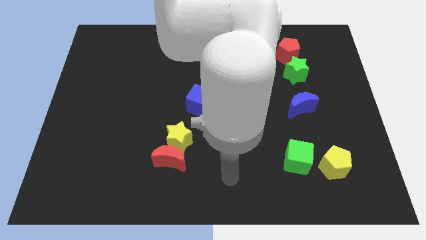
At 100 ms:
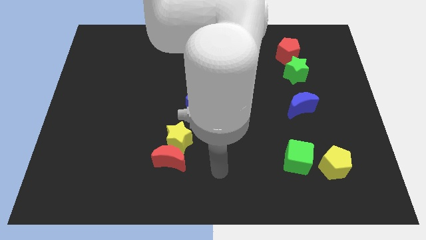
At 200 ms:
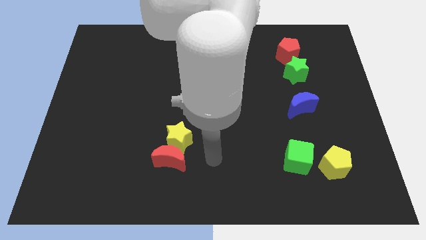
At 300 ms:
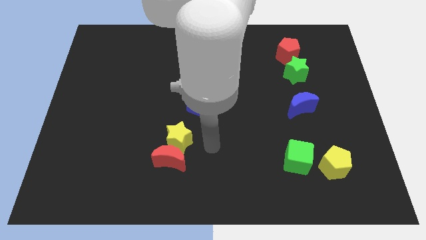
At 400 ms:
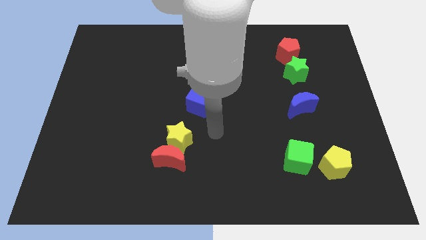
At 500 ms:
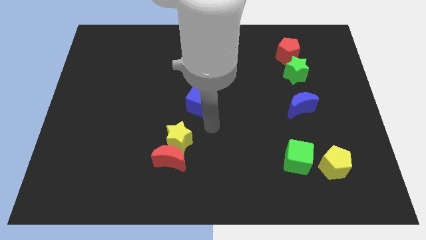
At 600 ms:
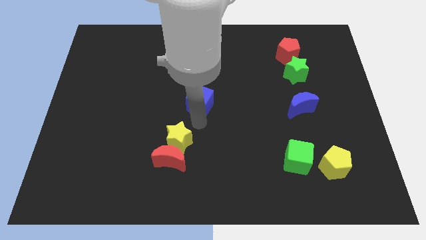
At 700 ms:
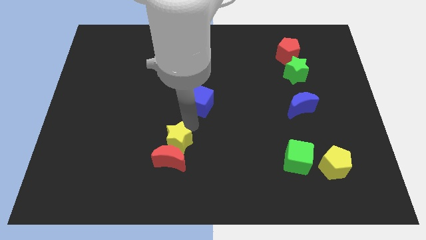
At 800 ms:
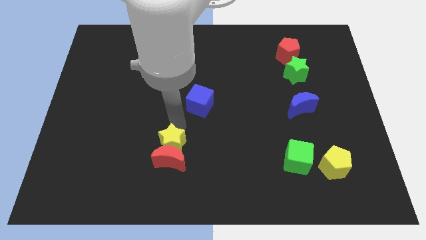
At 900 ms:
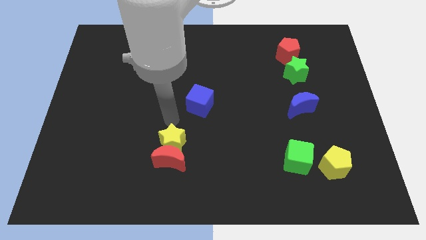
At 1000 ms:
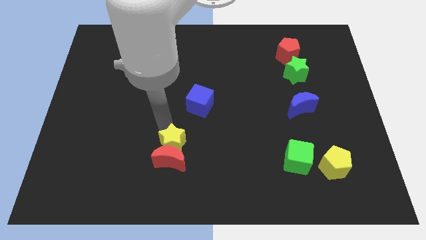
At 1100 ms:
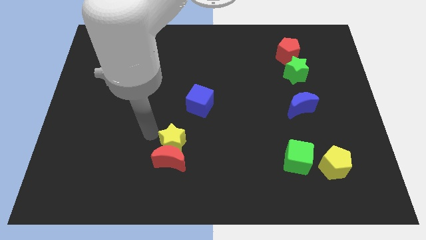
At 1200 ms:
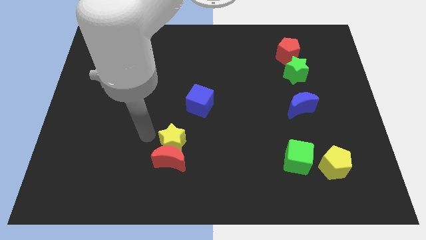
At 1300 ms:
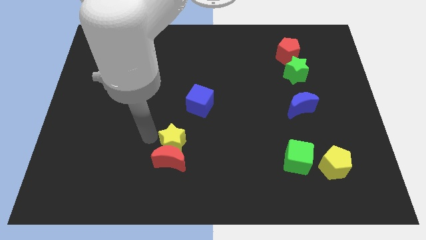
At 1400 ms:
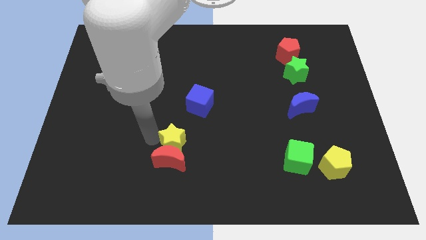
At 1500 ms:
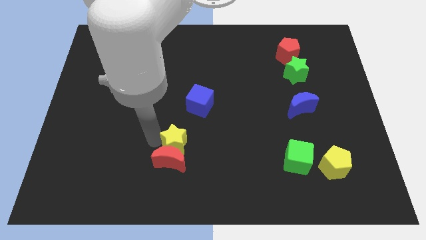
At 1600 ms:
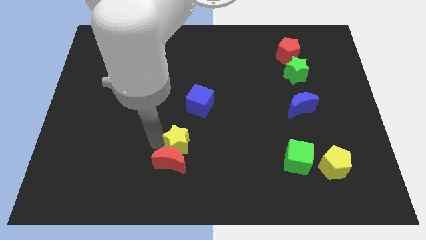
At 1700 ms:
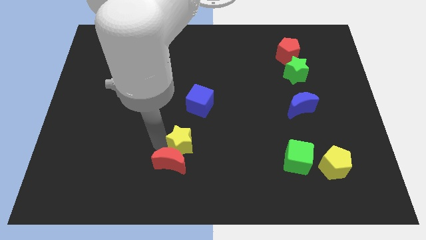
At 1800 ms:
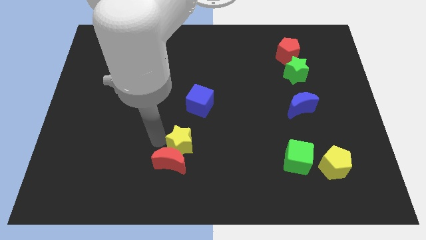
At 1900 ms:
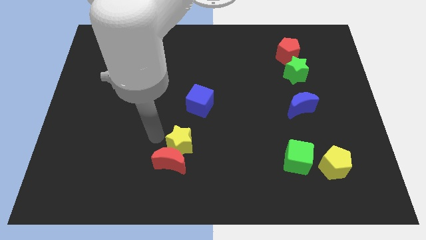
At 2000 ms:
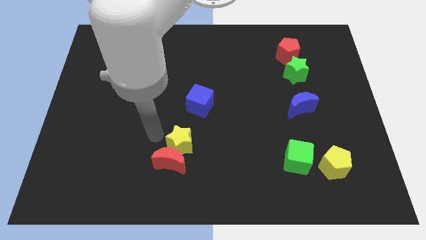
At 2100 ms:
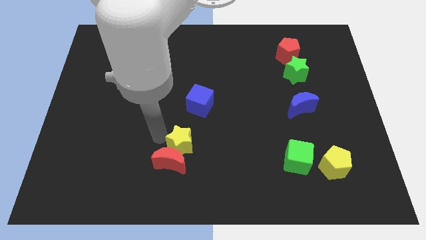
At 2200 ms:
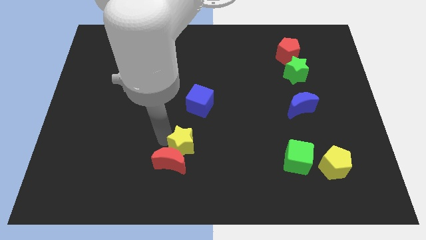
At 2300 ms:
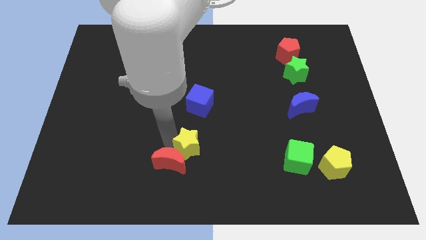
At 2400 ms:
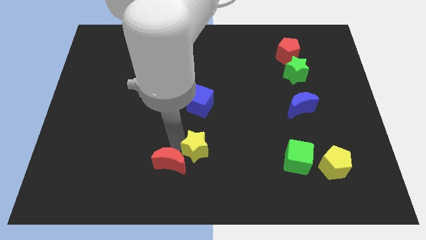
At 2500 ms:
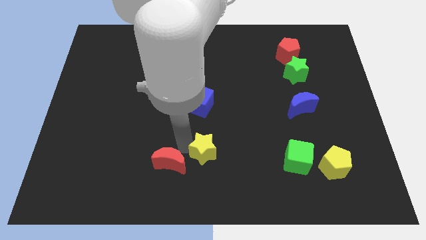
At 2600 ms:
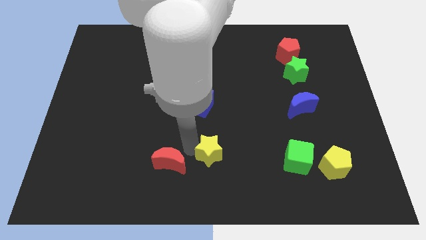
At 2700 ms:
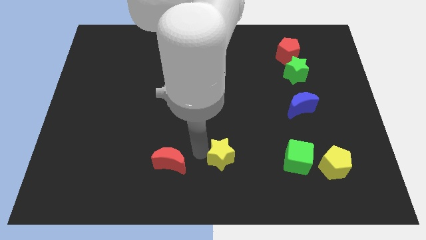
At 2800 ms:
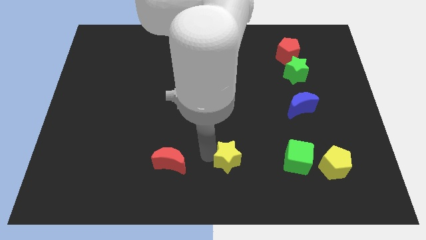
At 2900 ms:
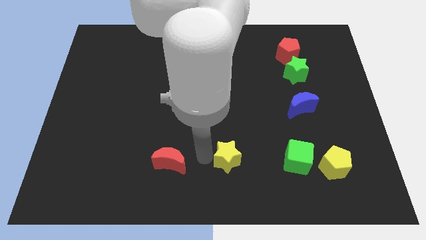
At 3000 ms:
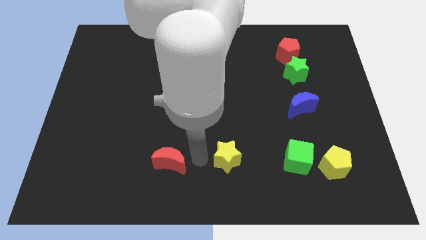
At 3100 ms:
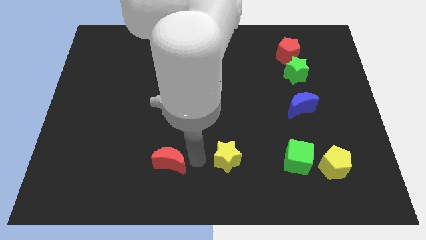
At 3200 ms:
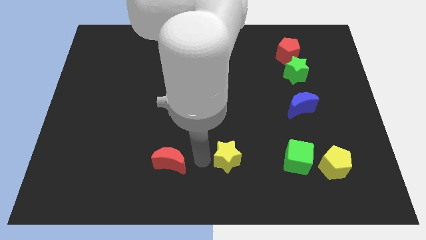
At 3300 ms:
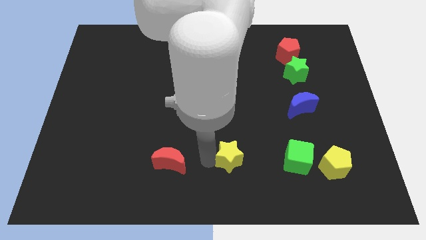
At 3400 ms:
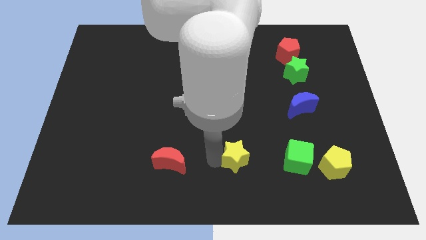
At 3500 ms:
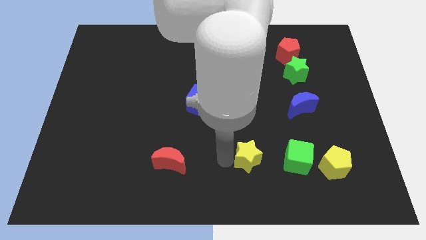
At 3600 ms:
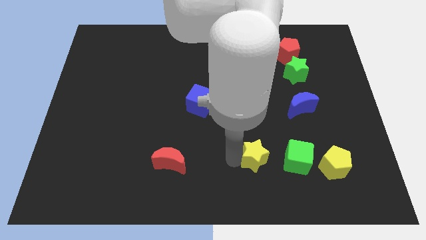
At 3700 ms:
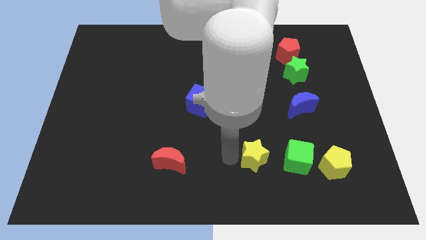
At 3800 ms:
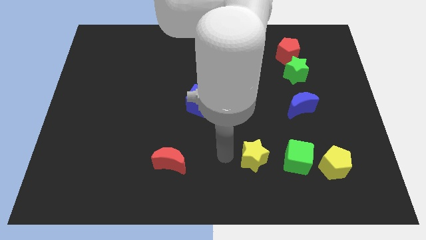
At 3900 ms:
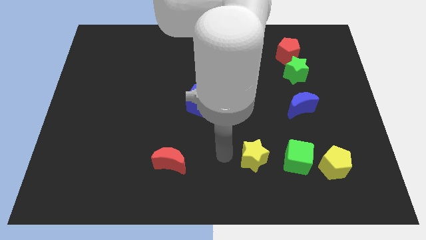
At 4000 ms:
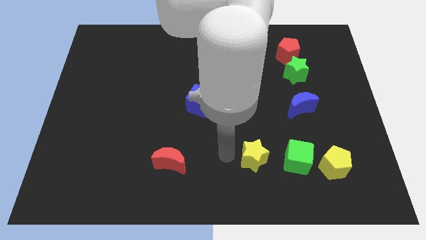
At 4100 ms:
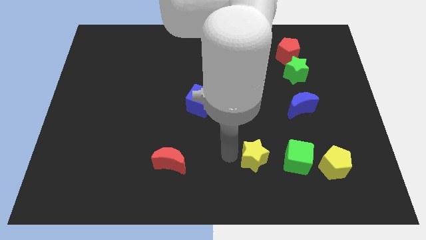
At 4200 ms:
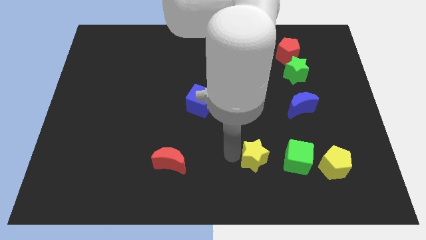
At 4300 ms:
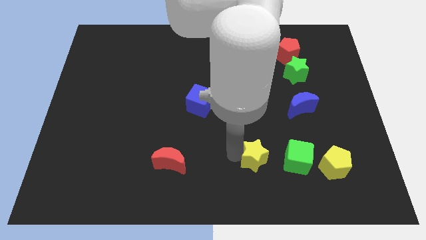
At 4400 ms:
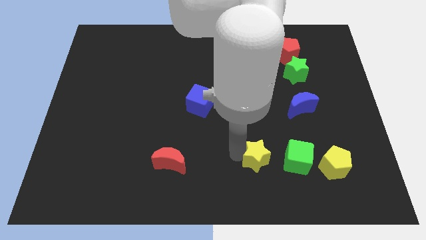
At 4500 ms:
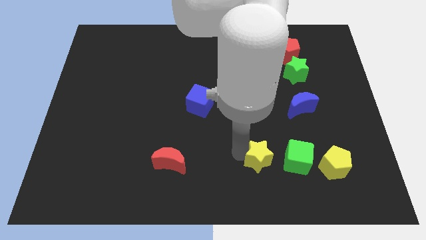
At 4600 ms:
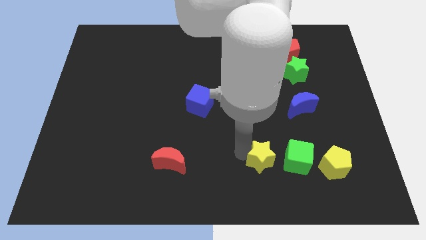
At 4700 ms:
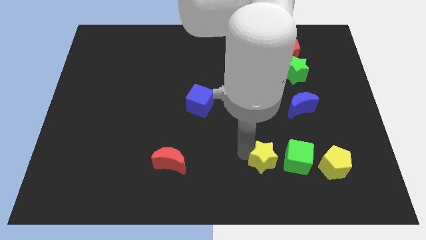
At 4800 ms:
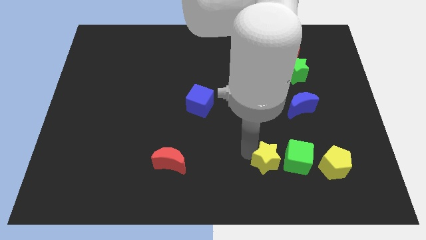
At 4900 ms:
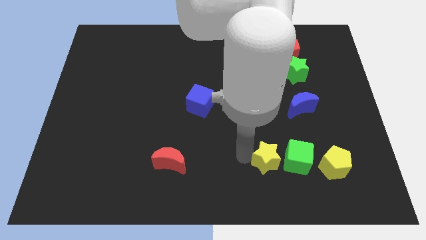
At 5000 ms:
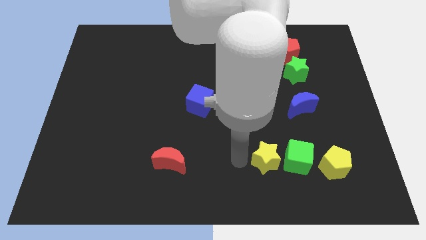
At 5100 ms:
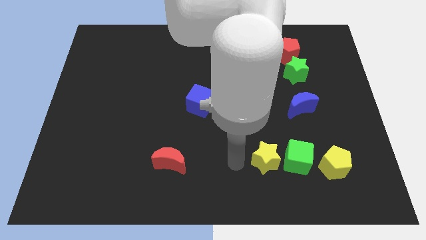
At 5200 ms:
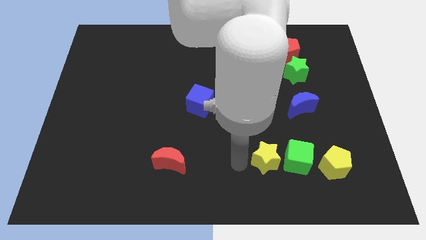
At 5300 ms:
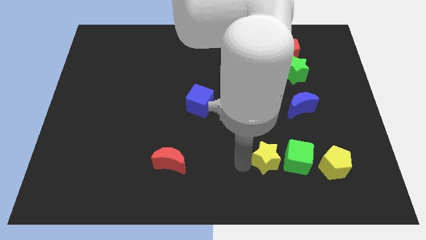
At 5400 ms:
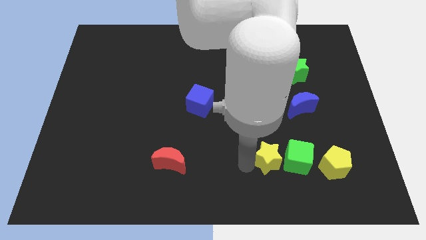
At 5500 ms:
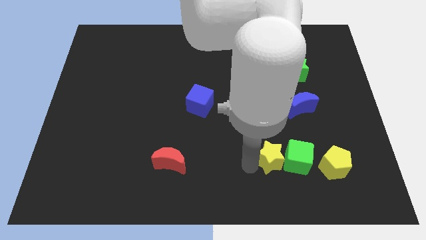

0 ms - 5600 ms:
push the yellow star close to the green cube

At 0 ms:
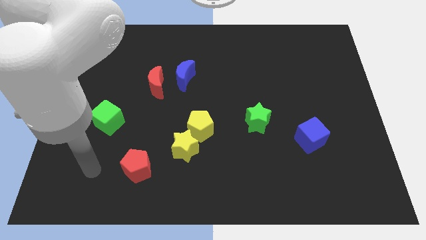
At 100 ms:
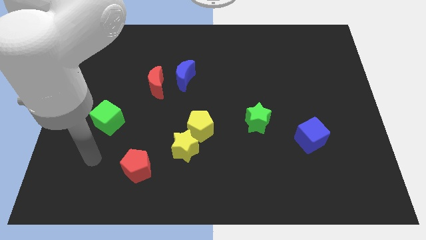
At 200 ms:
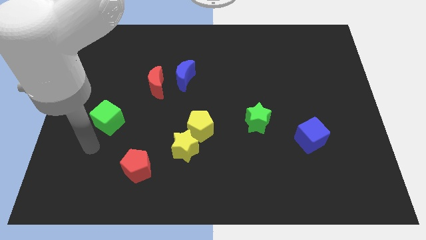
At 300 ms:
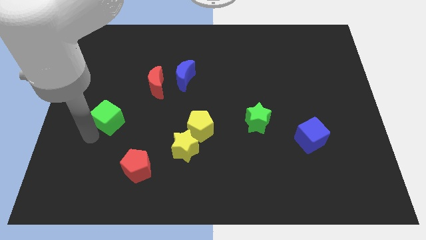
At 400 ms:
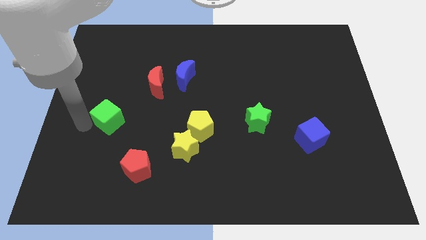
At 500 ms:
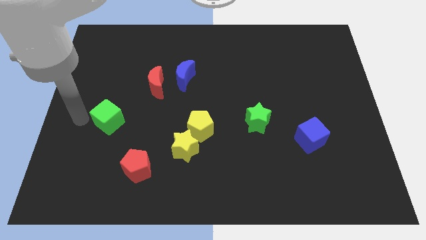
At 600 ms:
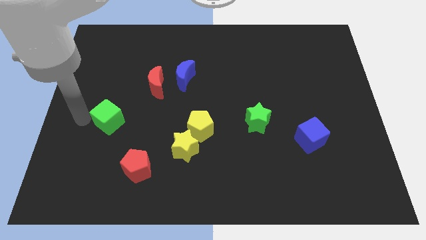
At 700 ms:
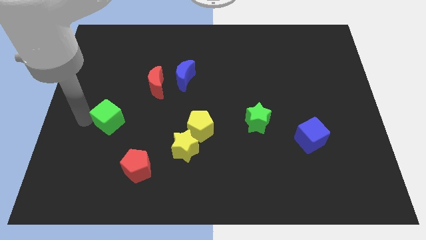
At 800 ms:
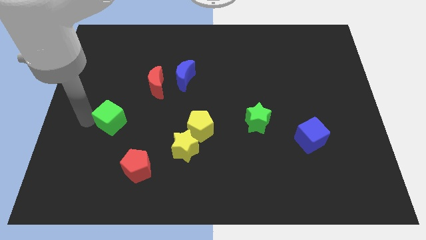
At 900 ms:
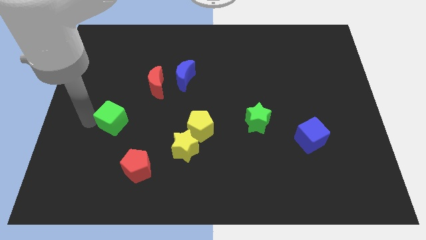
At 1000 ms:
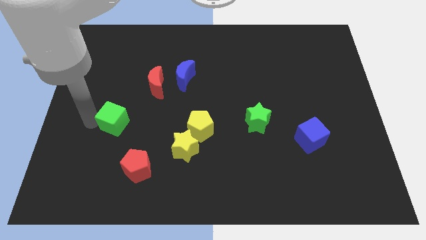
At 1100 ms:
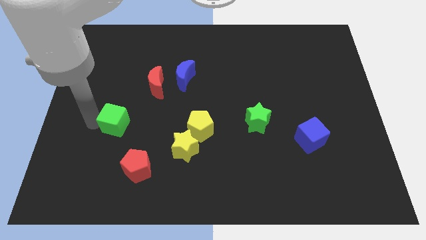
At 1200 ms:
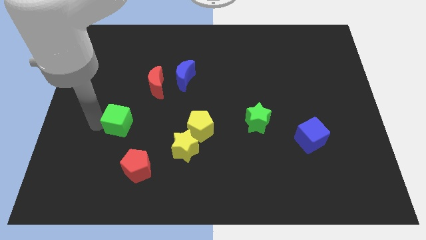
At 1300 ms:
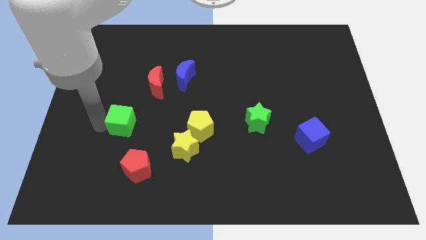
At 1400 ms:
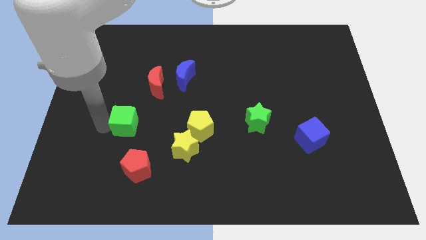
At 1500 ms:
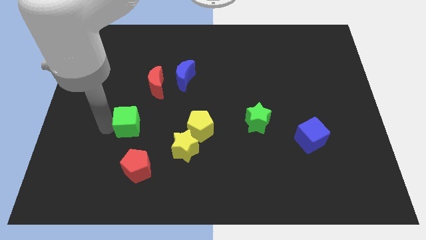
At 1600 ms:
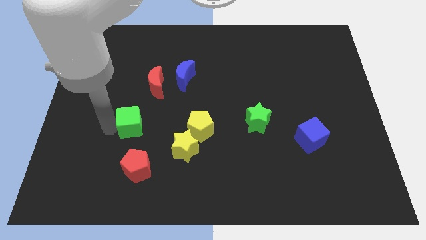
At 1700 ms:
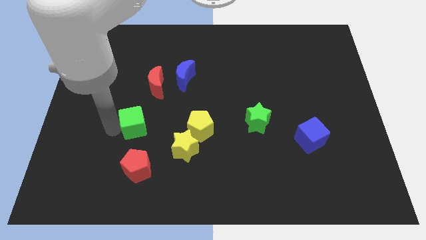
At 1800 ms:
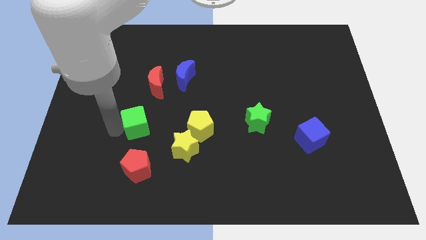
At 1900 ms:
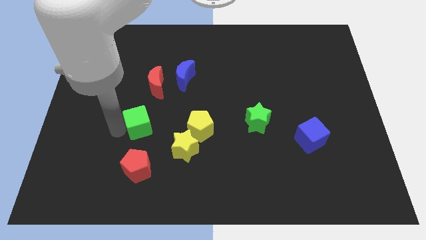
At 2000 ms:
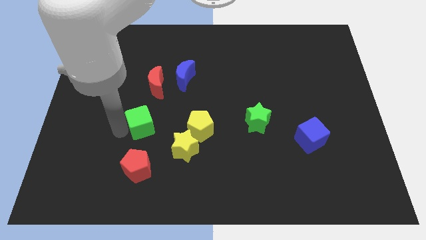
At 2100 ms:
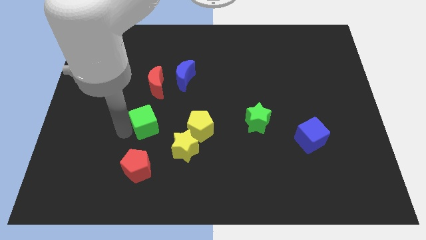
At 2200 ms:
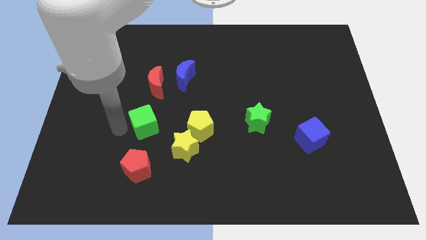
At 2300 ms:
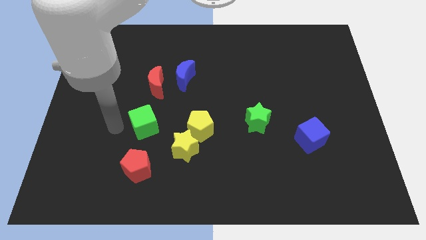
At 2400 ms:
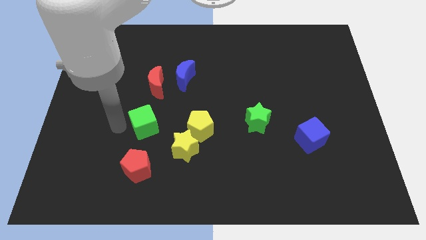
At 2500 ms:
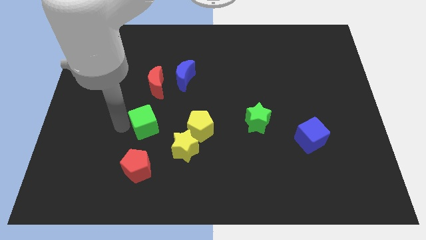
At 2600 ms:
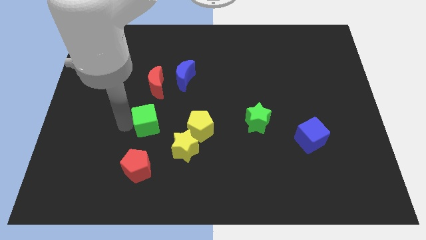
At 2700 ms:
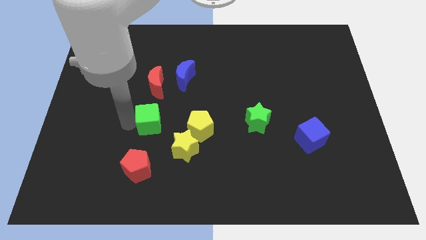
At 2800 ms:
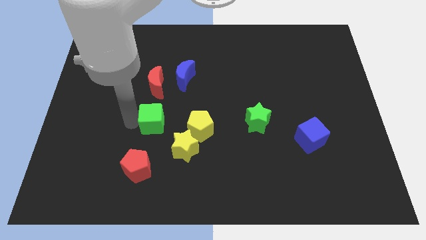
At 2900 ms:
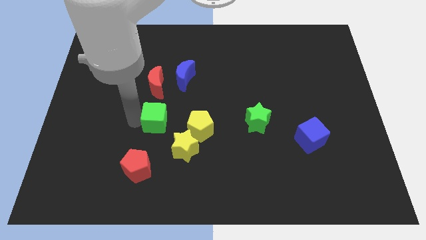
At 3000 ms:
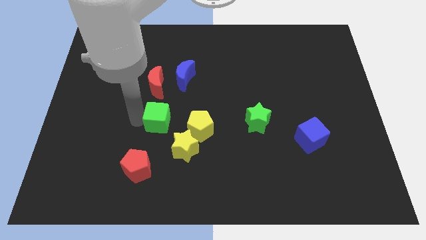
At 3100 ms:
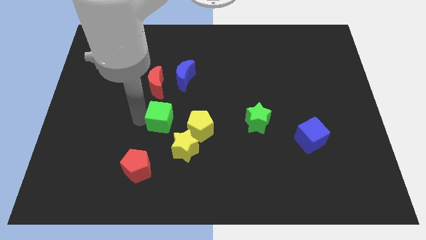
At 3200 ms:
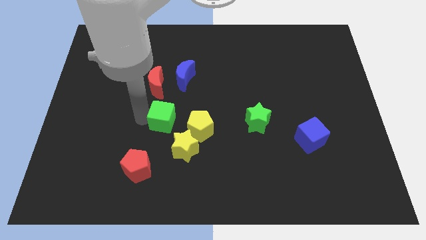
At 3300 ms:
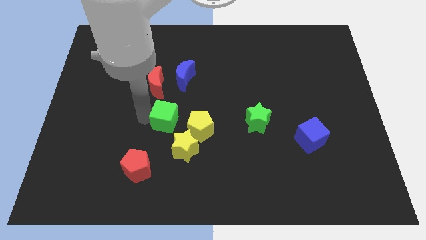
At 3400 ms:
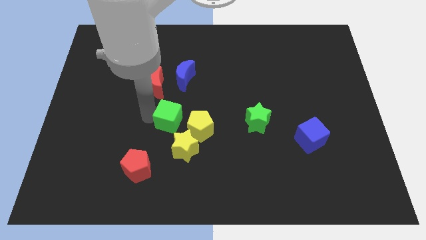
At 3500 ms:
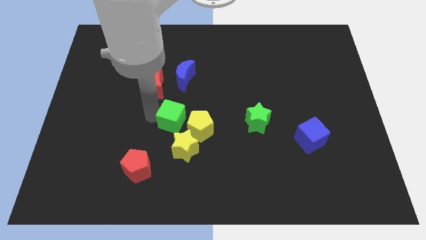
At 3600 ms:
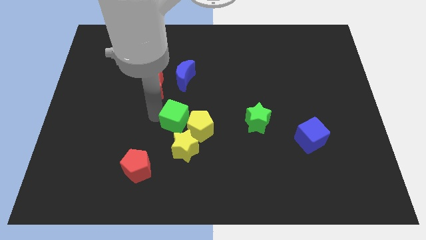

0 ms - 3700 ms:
push the green cube to the yellow pentagon
